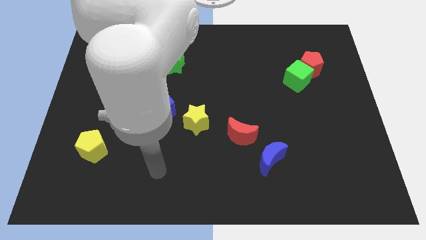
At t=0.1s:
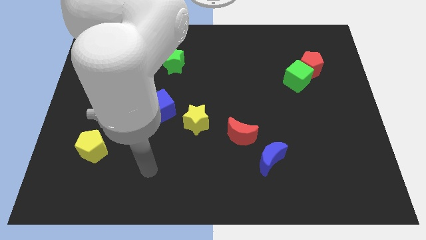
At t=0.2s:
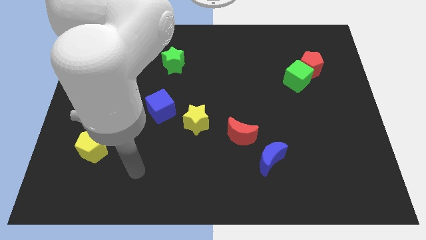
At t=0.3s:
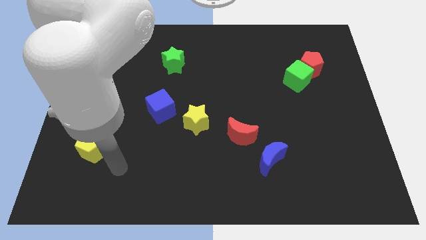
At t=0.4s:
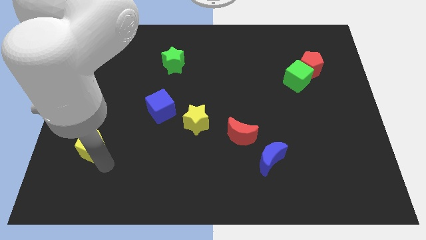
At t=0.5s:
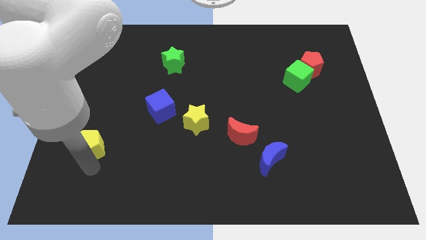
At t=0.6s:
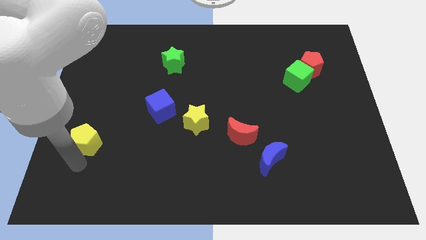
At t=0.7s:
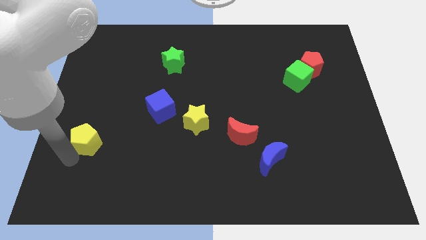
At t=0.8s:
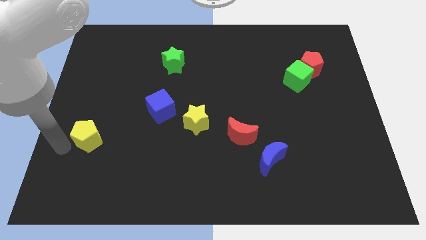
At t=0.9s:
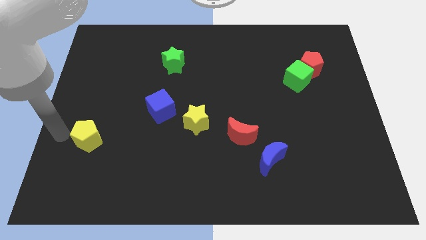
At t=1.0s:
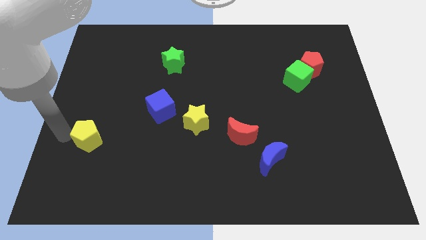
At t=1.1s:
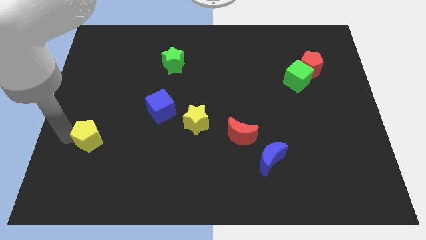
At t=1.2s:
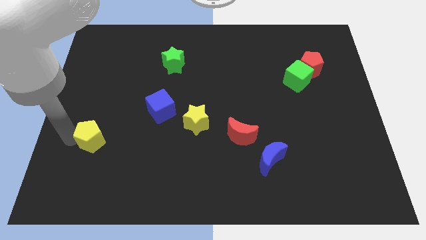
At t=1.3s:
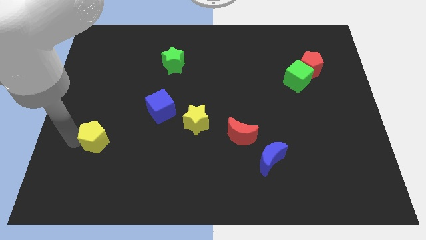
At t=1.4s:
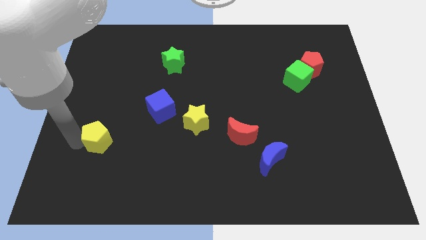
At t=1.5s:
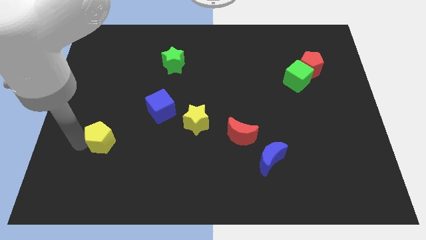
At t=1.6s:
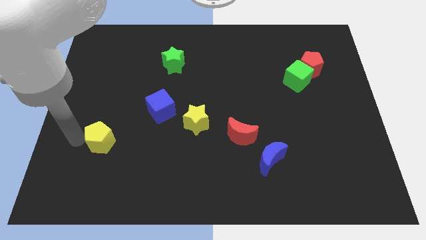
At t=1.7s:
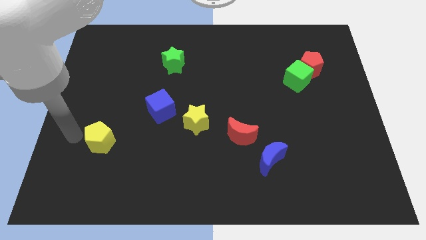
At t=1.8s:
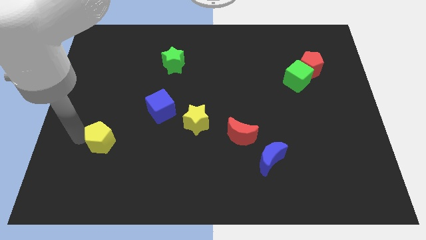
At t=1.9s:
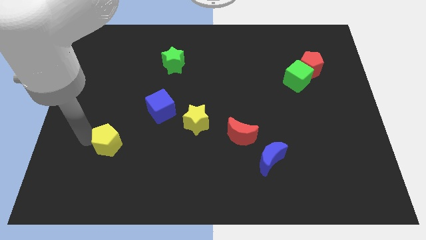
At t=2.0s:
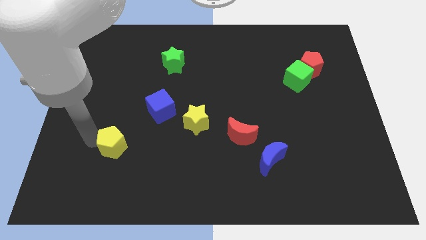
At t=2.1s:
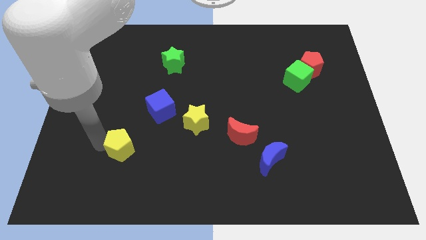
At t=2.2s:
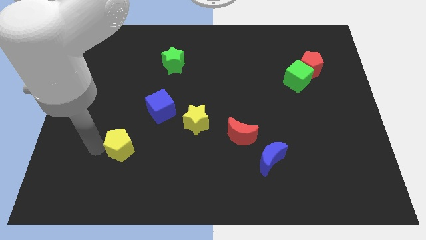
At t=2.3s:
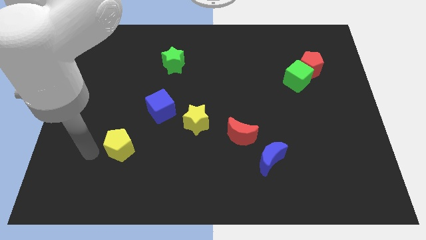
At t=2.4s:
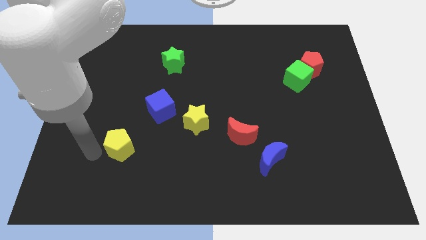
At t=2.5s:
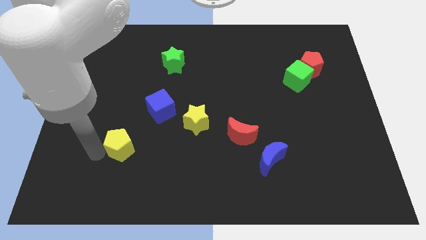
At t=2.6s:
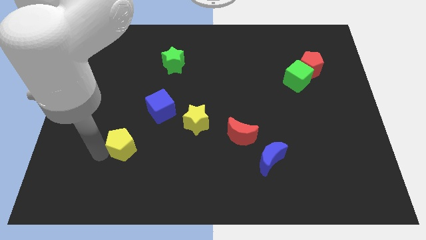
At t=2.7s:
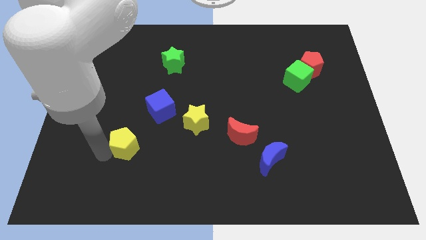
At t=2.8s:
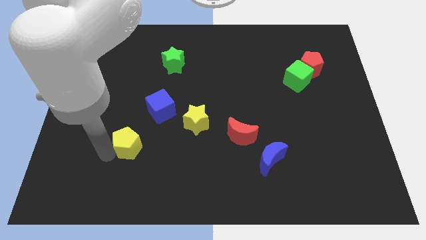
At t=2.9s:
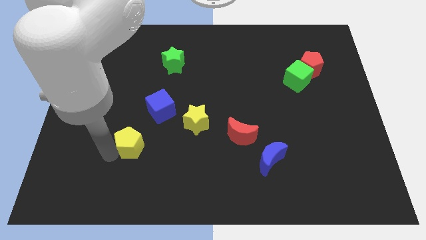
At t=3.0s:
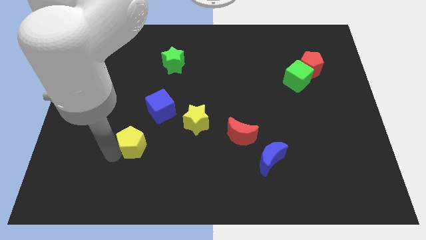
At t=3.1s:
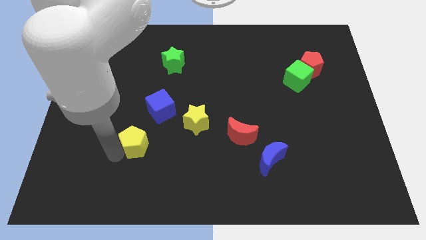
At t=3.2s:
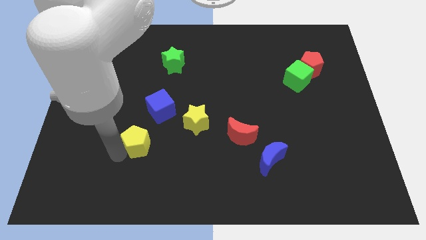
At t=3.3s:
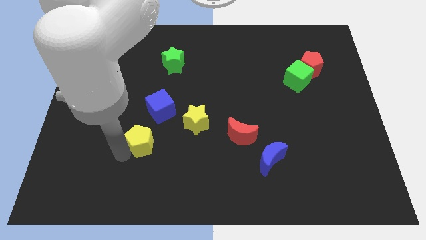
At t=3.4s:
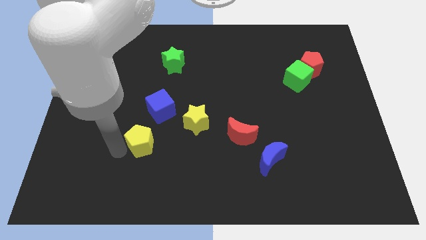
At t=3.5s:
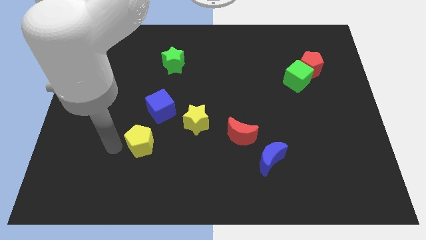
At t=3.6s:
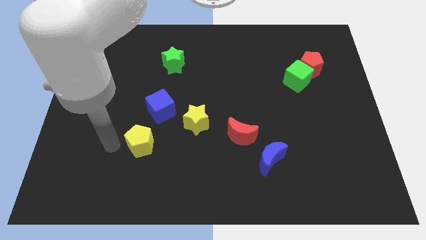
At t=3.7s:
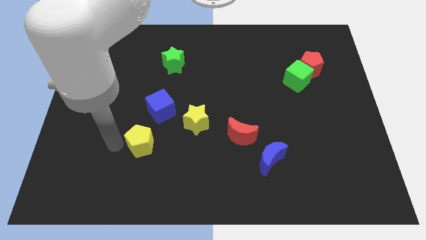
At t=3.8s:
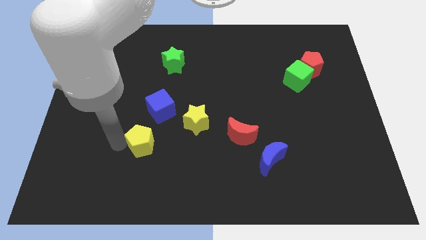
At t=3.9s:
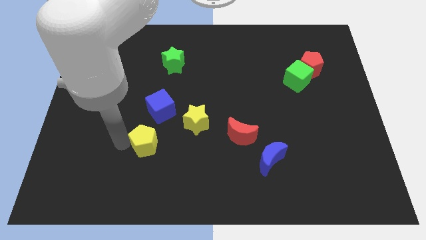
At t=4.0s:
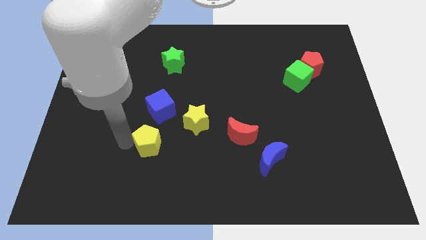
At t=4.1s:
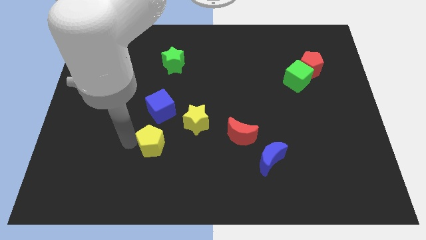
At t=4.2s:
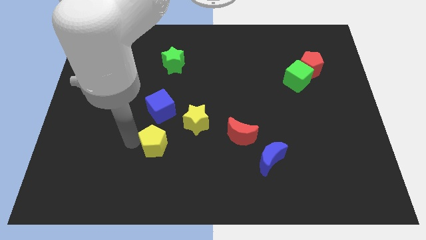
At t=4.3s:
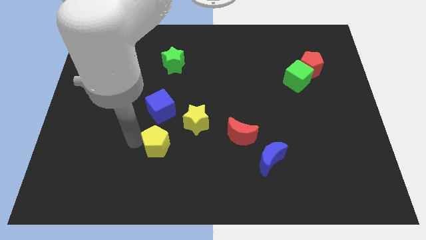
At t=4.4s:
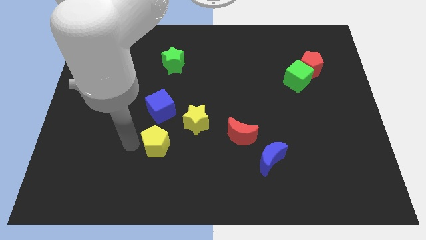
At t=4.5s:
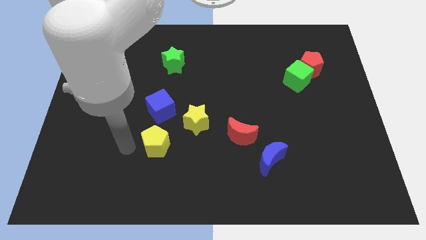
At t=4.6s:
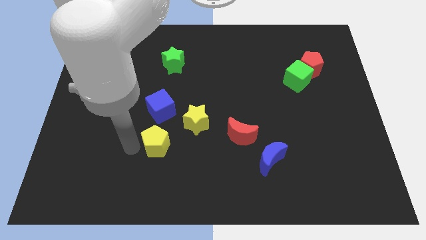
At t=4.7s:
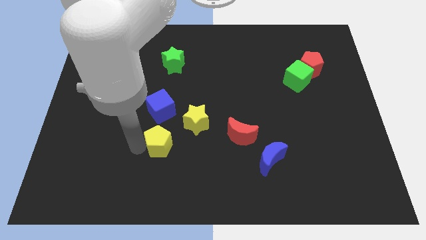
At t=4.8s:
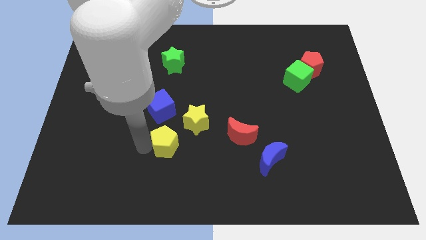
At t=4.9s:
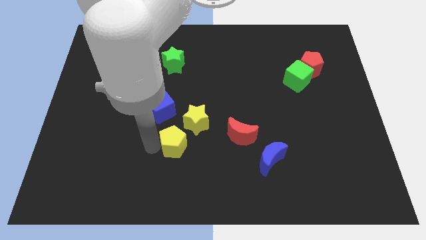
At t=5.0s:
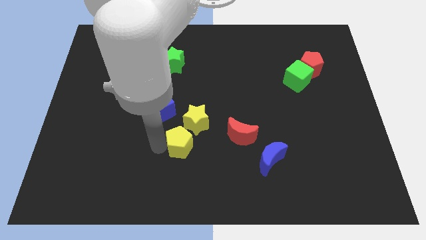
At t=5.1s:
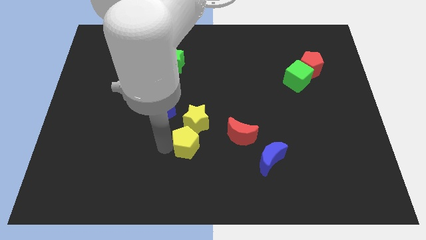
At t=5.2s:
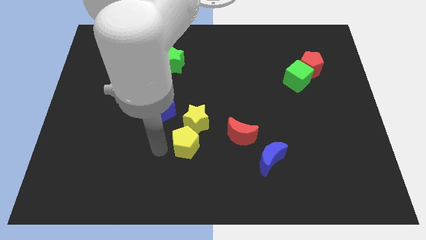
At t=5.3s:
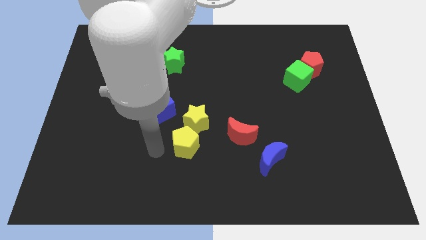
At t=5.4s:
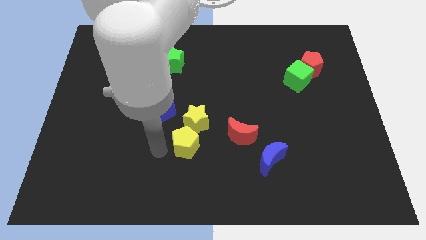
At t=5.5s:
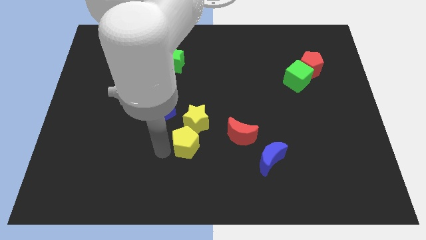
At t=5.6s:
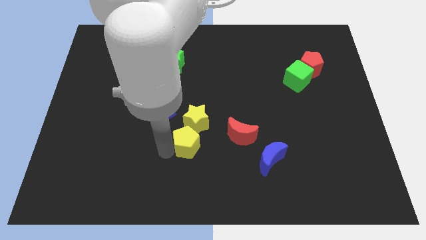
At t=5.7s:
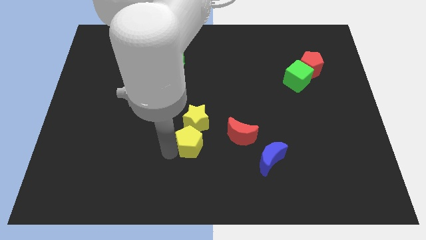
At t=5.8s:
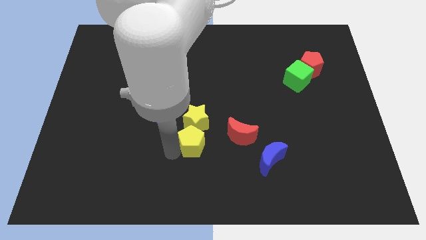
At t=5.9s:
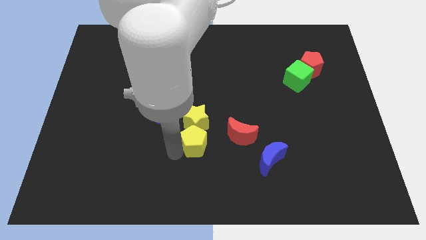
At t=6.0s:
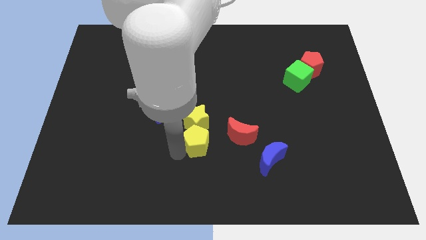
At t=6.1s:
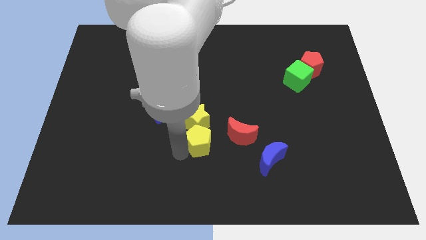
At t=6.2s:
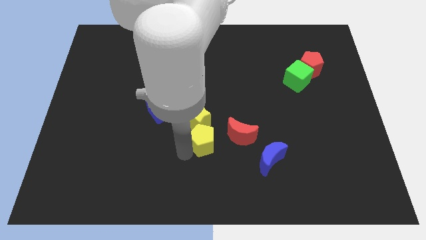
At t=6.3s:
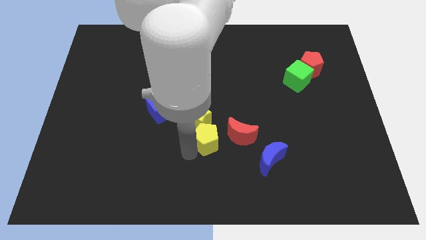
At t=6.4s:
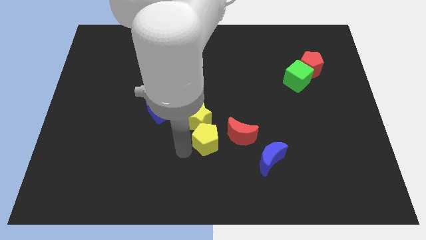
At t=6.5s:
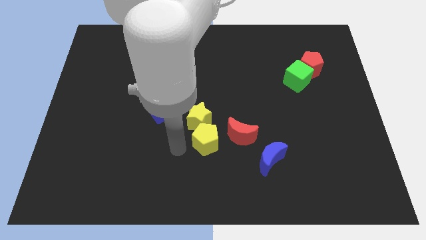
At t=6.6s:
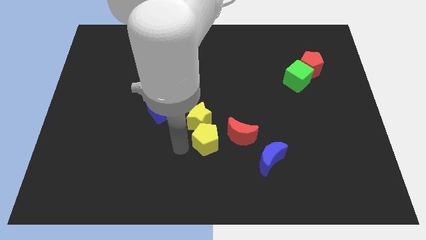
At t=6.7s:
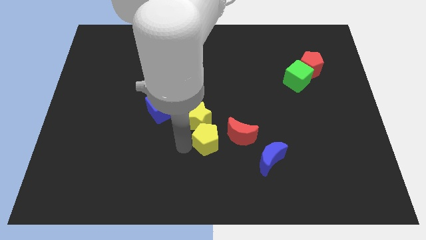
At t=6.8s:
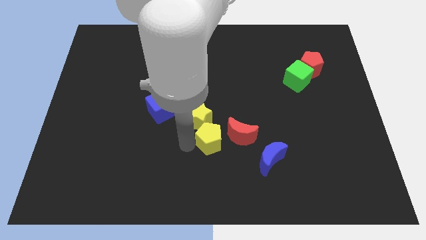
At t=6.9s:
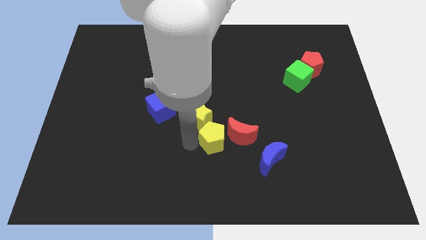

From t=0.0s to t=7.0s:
push the yellow pentagon to the red moon

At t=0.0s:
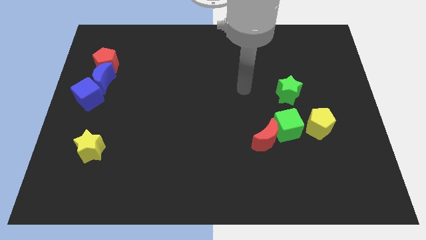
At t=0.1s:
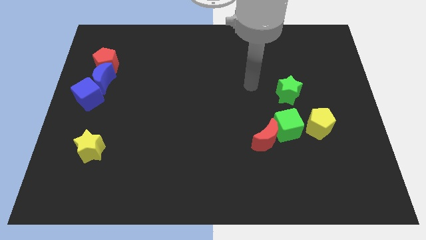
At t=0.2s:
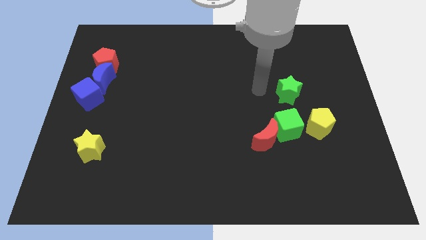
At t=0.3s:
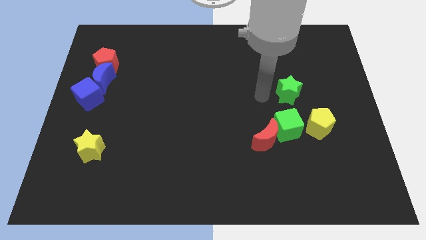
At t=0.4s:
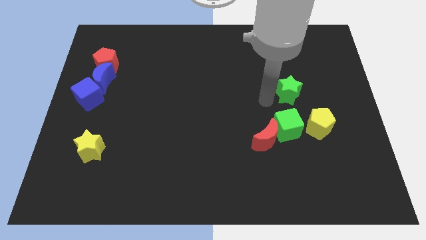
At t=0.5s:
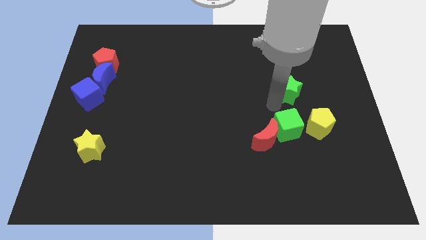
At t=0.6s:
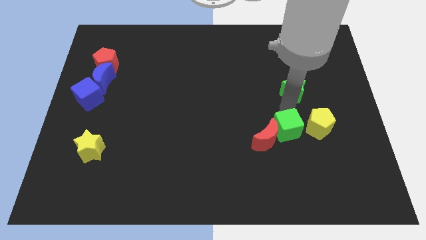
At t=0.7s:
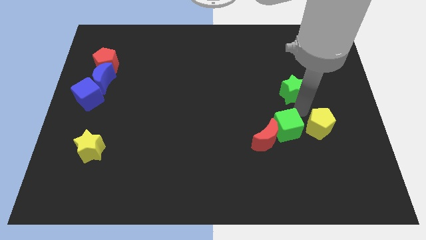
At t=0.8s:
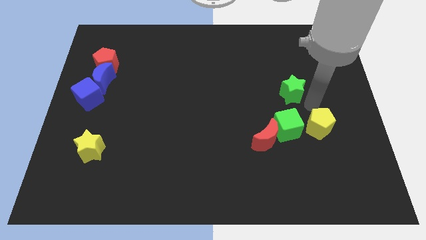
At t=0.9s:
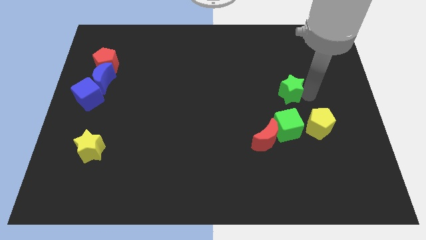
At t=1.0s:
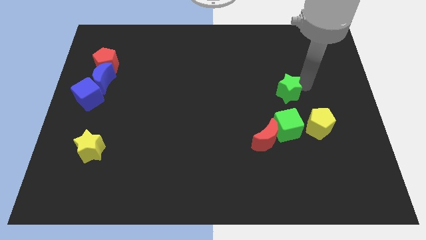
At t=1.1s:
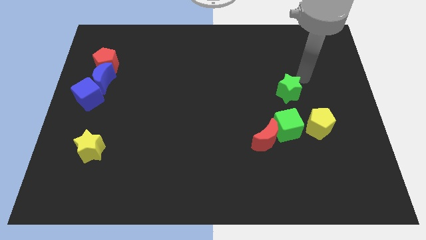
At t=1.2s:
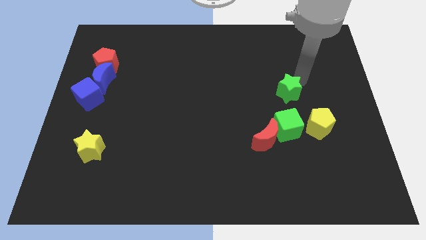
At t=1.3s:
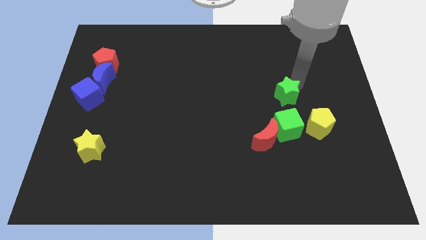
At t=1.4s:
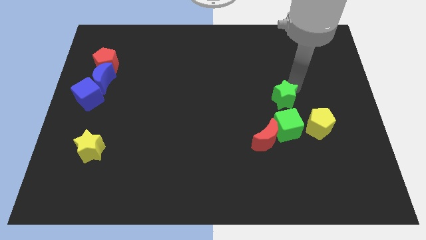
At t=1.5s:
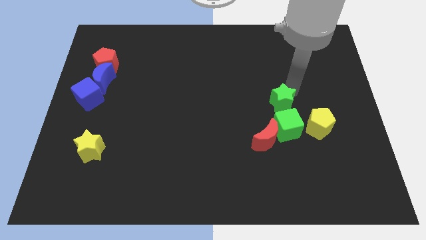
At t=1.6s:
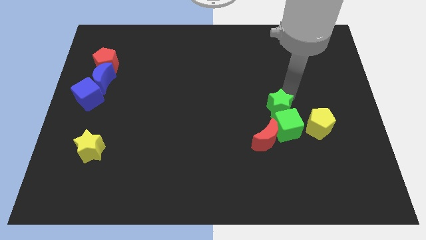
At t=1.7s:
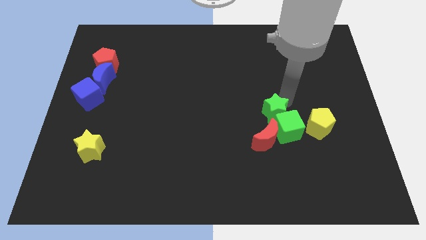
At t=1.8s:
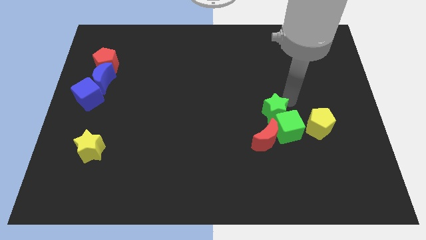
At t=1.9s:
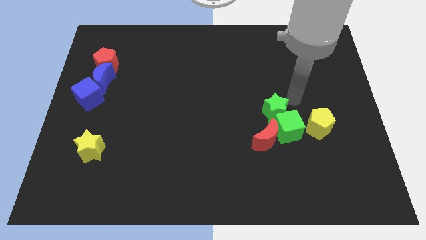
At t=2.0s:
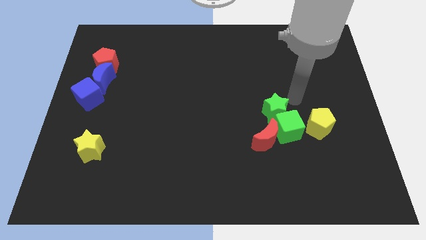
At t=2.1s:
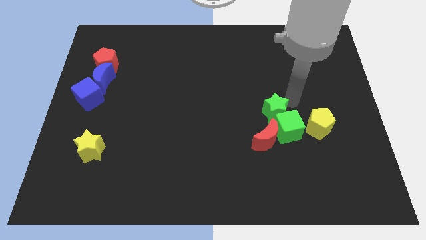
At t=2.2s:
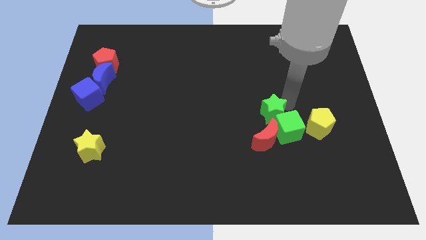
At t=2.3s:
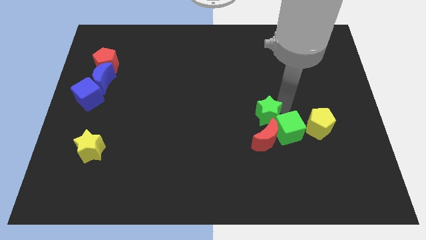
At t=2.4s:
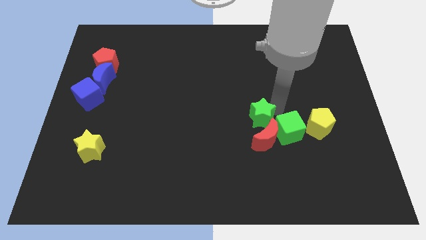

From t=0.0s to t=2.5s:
move the green star towards the red moon
